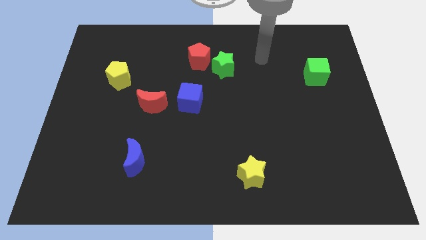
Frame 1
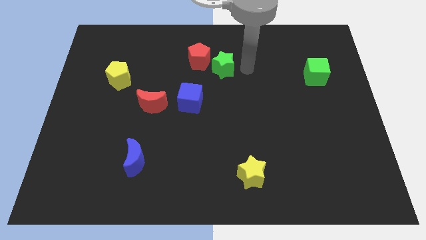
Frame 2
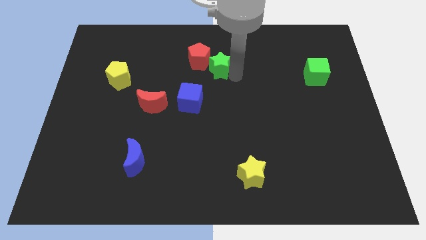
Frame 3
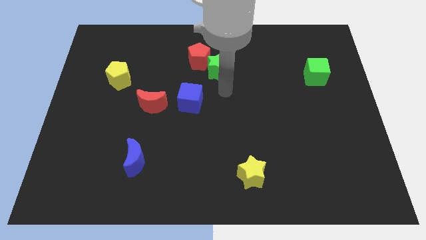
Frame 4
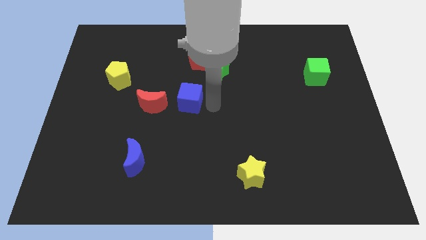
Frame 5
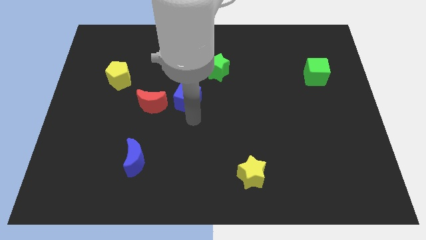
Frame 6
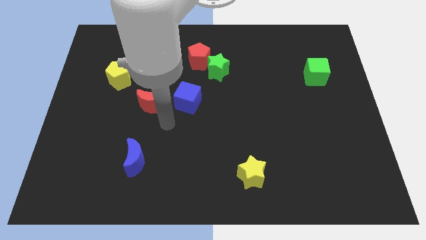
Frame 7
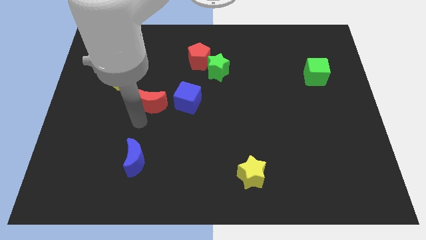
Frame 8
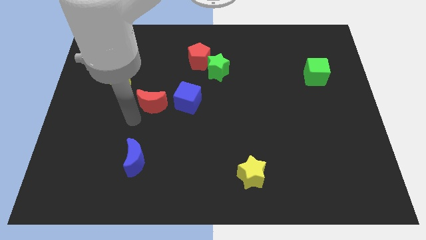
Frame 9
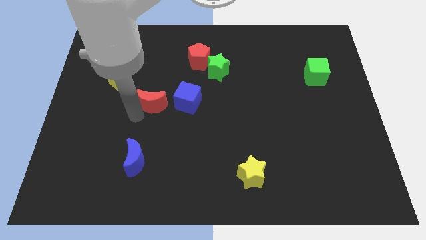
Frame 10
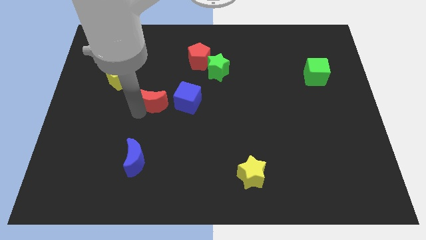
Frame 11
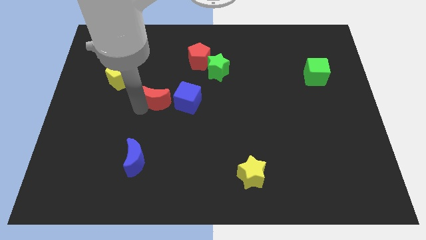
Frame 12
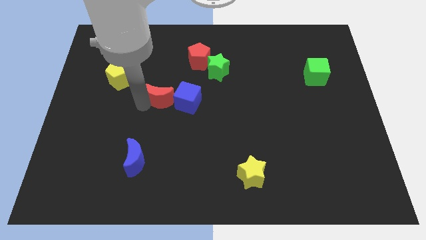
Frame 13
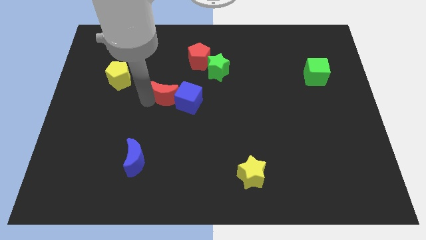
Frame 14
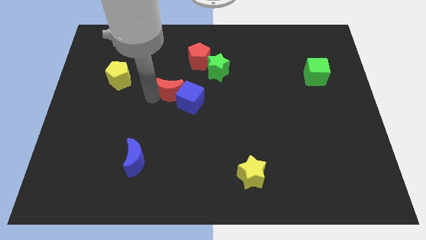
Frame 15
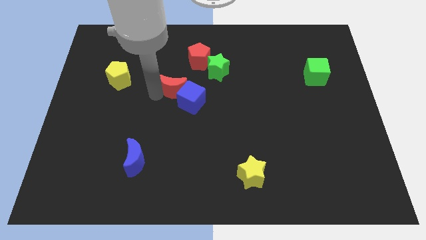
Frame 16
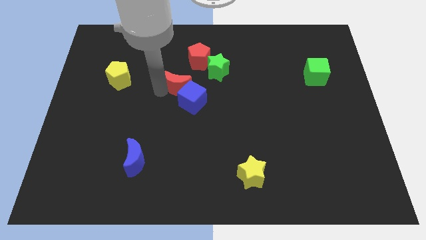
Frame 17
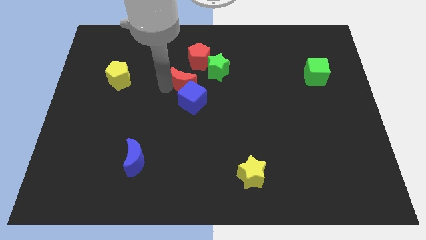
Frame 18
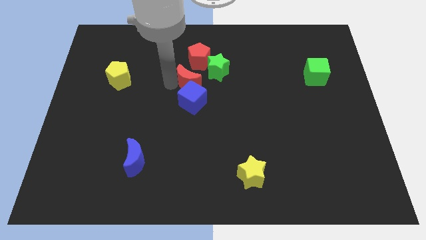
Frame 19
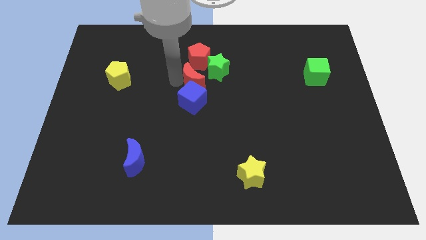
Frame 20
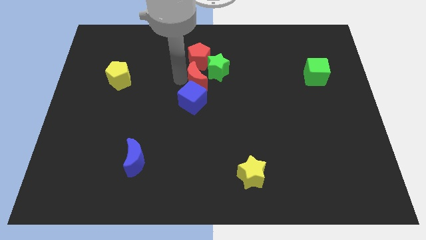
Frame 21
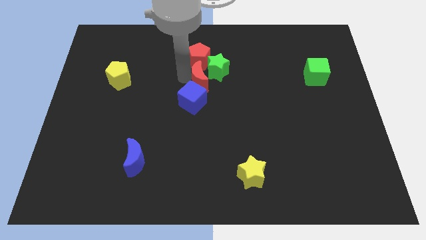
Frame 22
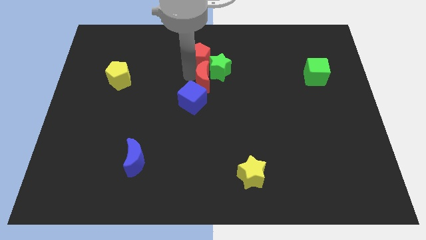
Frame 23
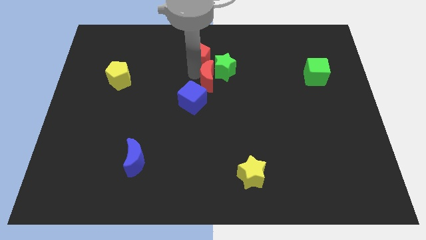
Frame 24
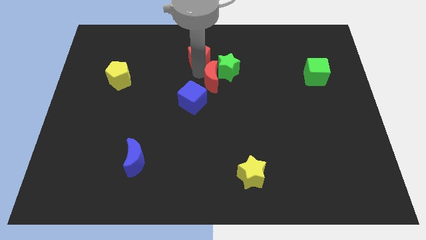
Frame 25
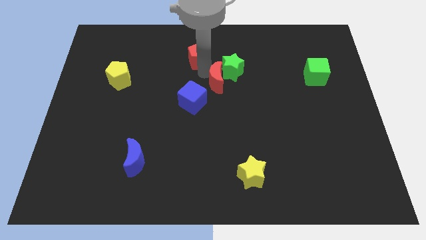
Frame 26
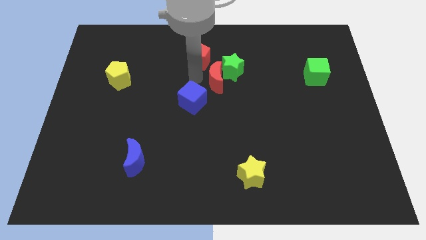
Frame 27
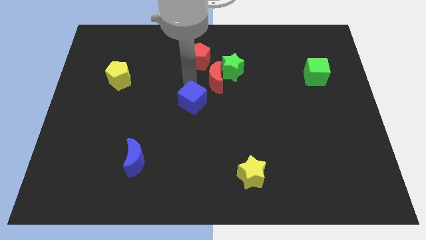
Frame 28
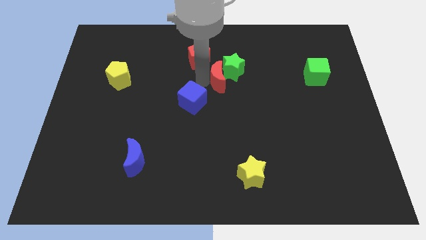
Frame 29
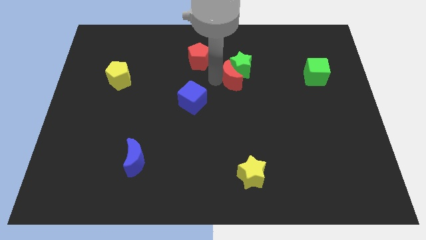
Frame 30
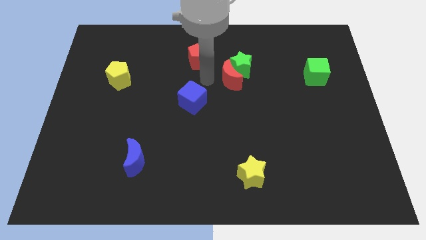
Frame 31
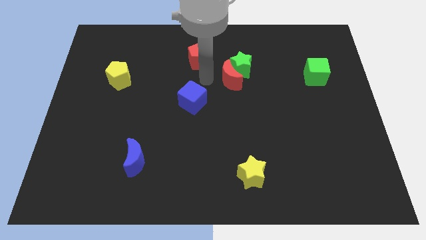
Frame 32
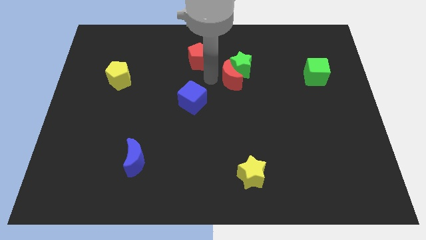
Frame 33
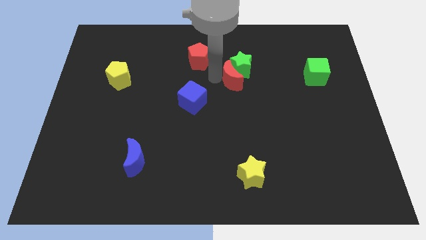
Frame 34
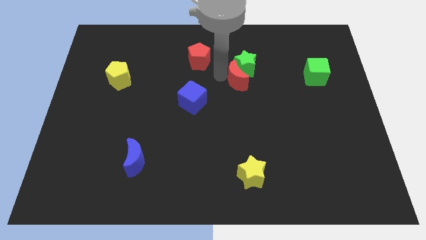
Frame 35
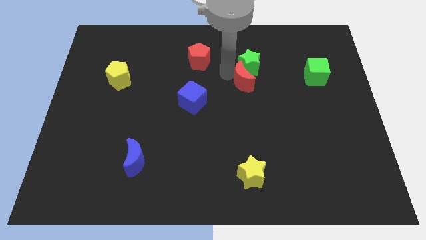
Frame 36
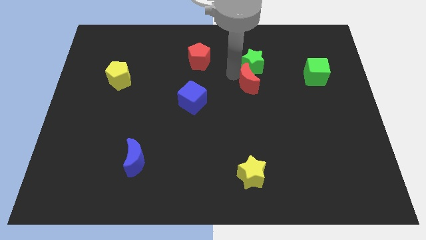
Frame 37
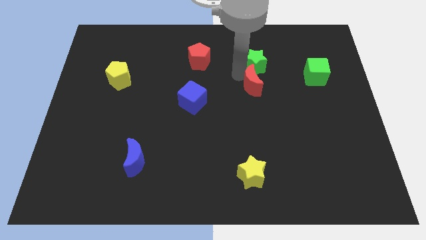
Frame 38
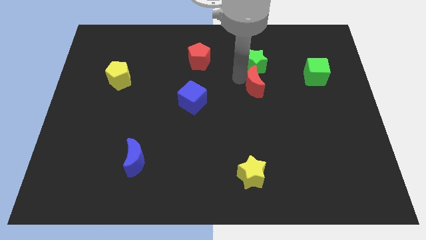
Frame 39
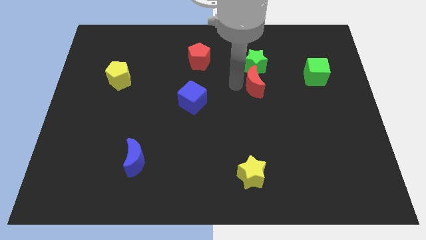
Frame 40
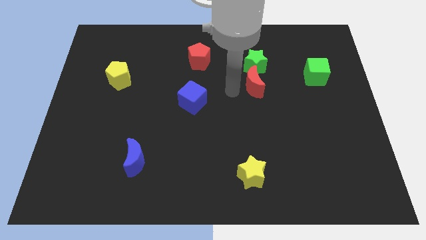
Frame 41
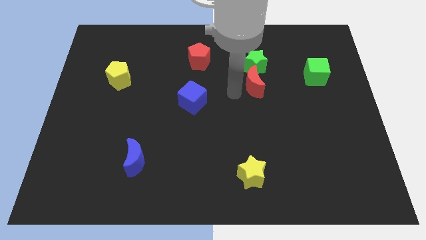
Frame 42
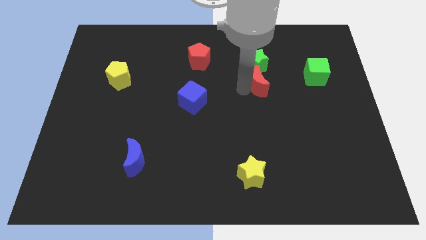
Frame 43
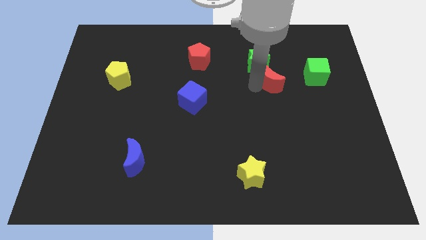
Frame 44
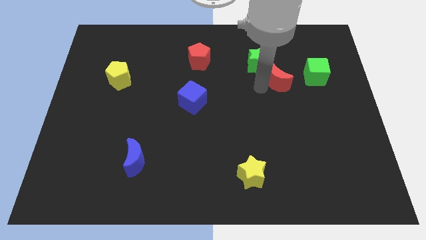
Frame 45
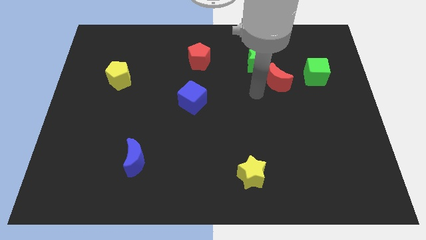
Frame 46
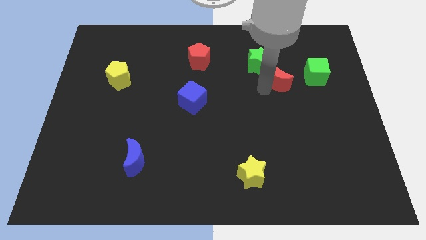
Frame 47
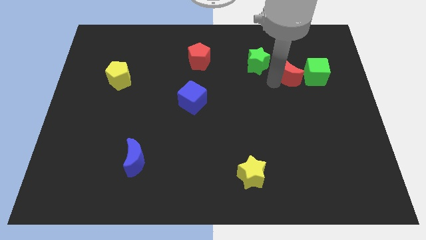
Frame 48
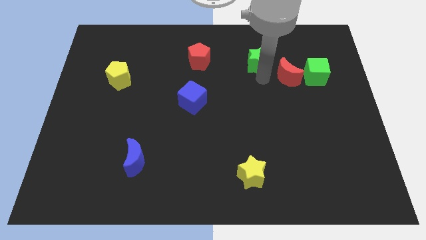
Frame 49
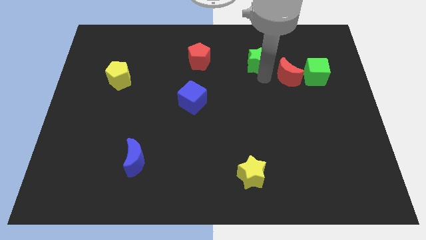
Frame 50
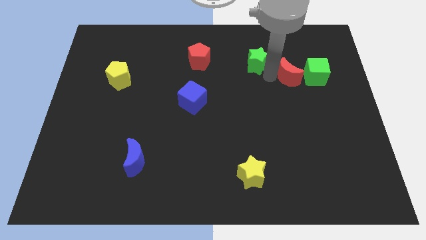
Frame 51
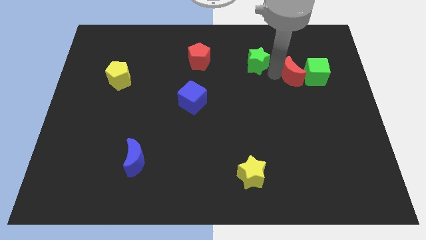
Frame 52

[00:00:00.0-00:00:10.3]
slide the red moon to the green cube

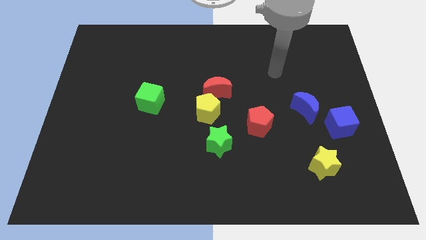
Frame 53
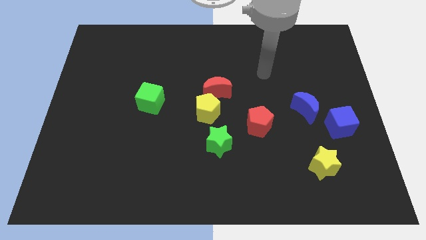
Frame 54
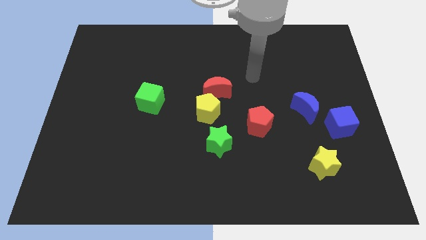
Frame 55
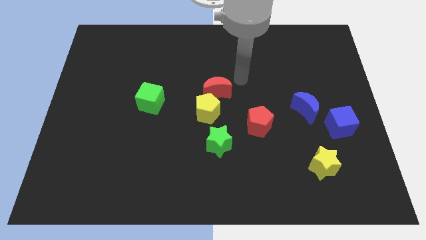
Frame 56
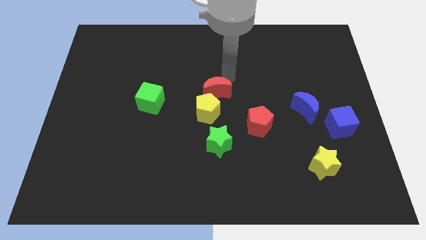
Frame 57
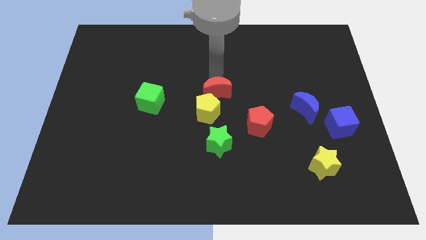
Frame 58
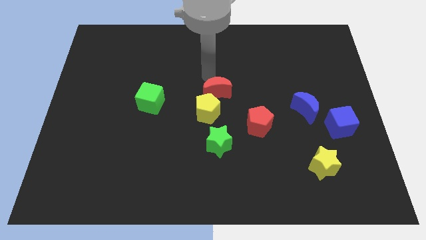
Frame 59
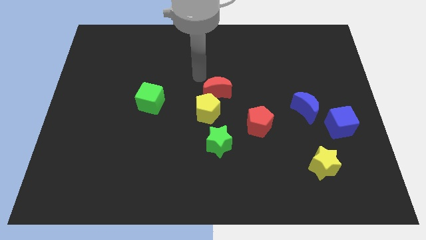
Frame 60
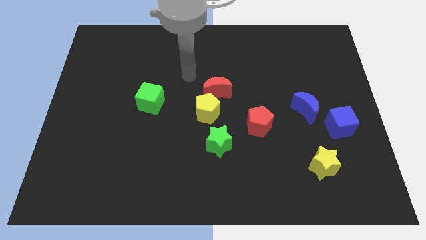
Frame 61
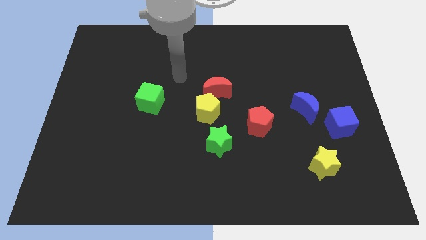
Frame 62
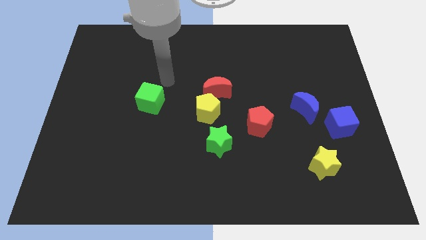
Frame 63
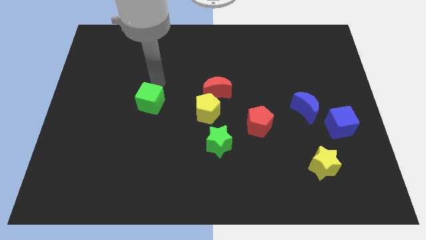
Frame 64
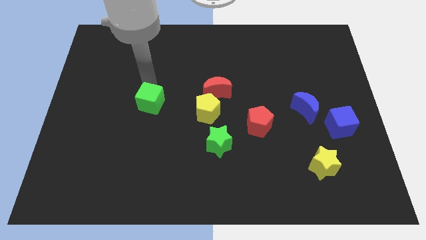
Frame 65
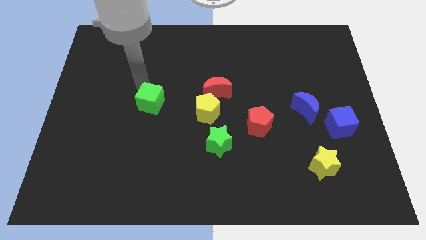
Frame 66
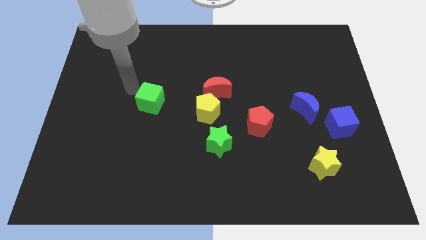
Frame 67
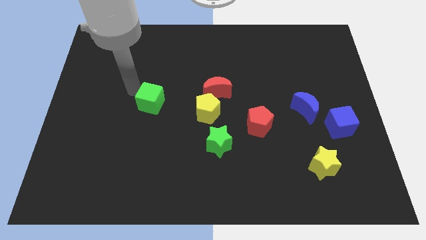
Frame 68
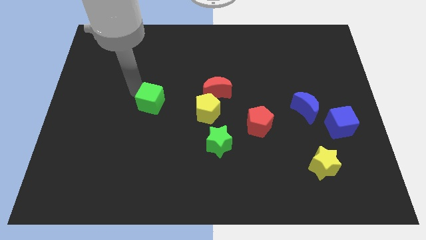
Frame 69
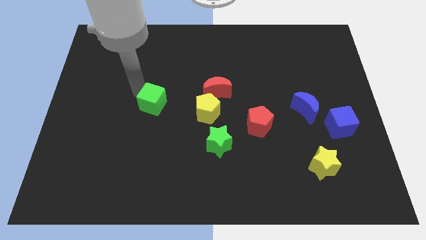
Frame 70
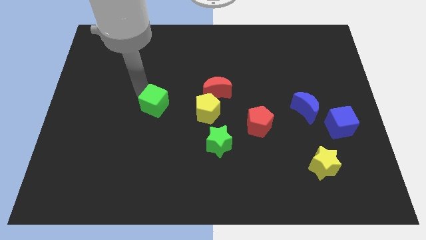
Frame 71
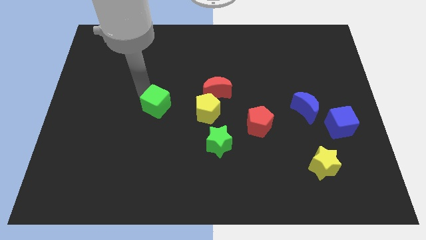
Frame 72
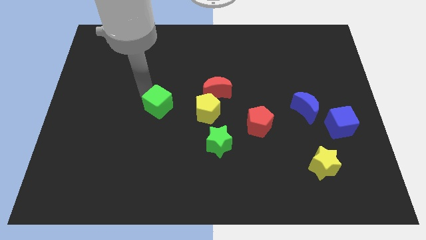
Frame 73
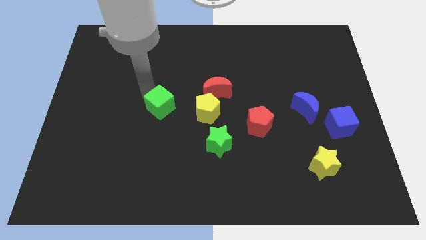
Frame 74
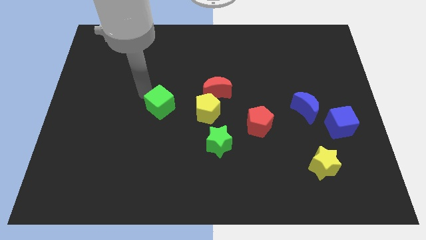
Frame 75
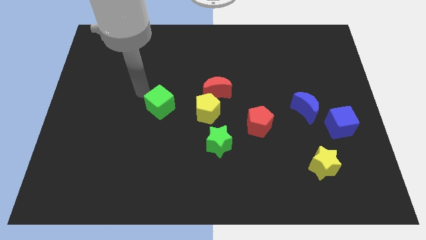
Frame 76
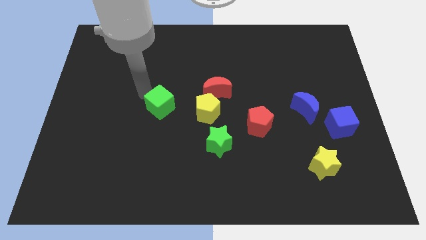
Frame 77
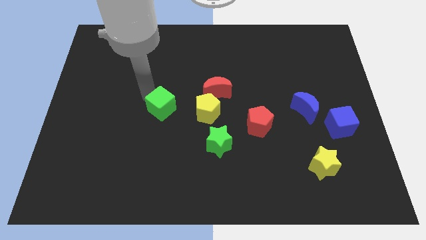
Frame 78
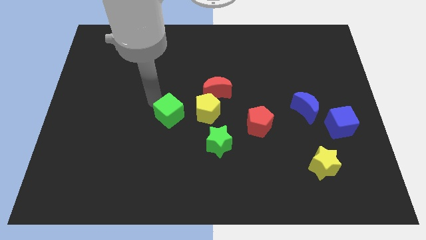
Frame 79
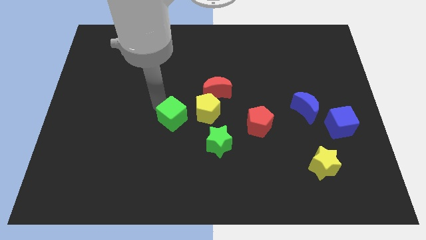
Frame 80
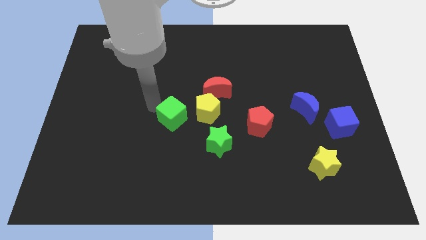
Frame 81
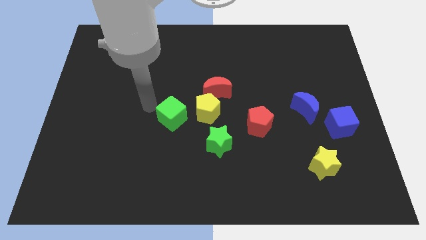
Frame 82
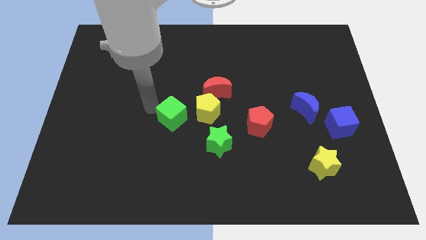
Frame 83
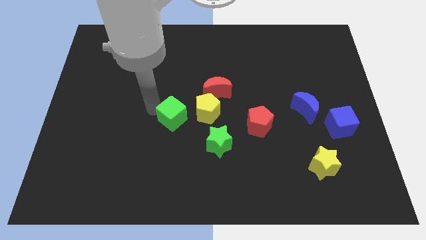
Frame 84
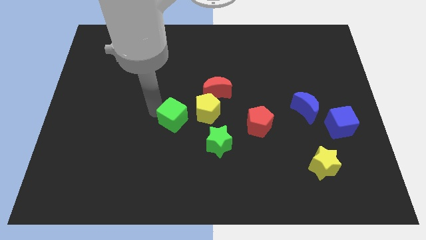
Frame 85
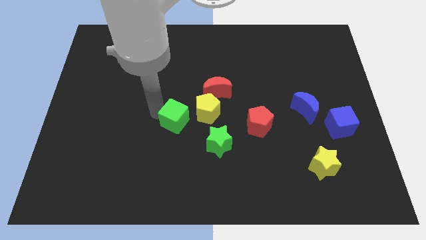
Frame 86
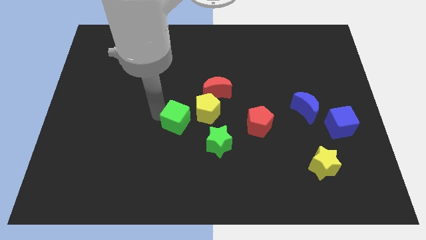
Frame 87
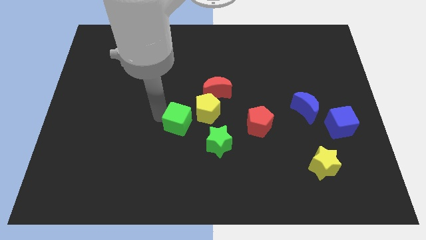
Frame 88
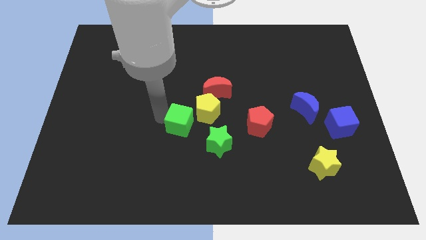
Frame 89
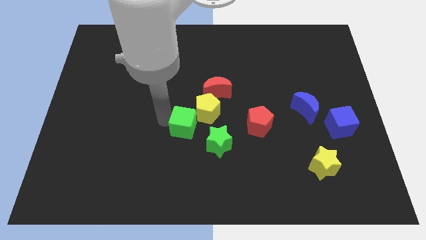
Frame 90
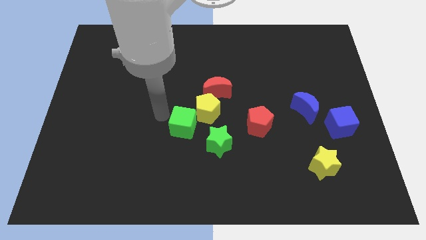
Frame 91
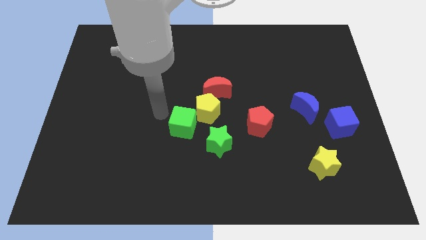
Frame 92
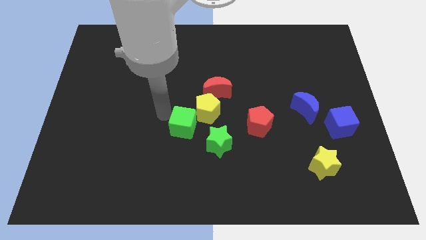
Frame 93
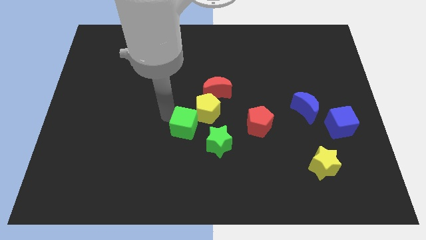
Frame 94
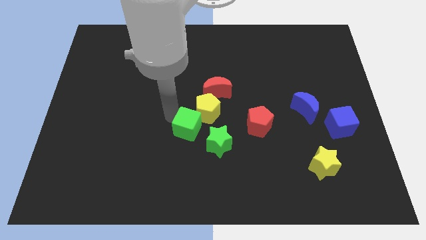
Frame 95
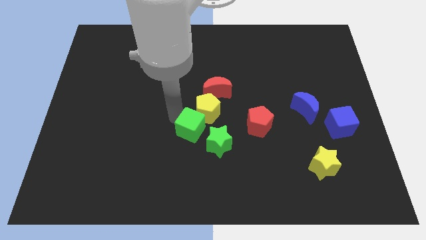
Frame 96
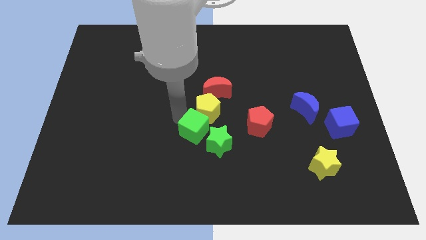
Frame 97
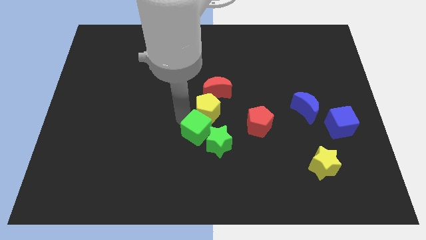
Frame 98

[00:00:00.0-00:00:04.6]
put the green cube towards the green star
